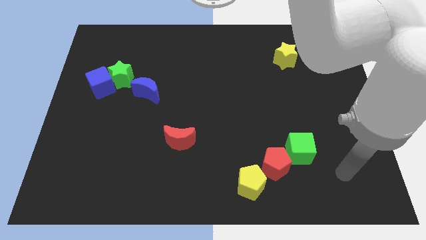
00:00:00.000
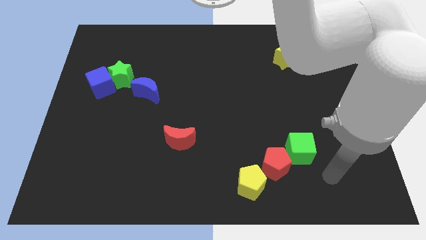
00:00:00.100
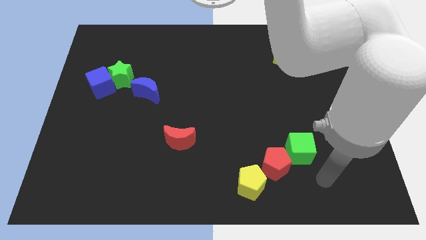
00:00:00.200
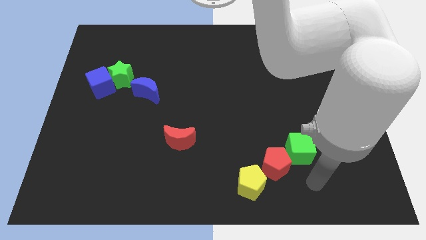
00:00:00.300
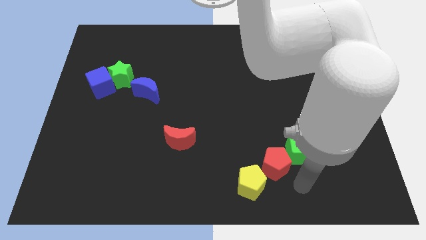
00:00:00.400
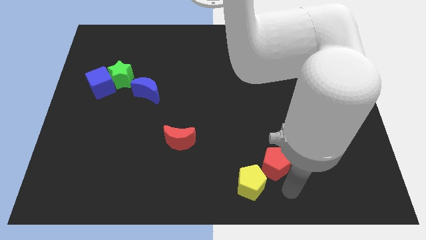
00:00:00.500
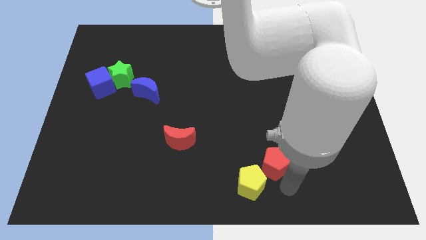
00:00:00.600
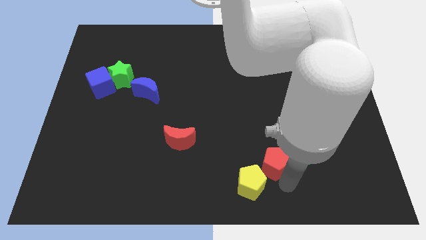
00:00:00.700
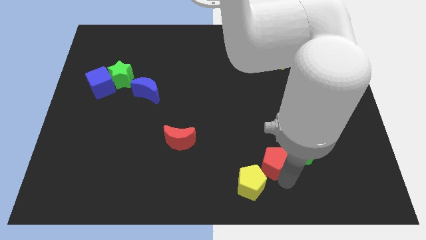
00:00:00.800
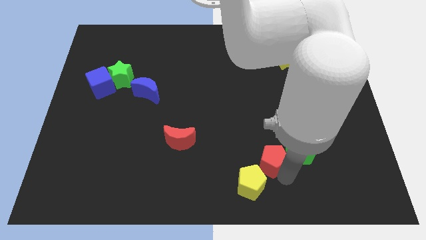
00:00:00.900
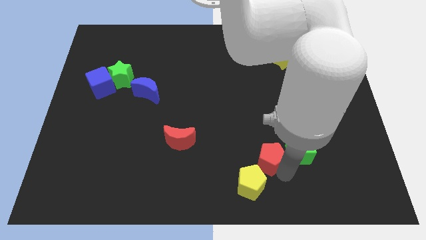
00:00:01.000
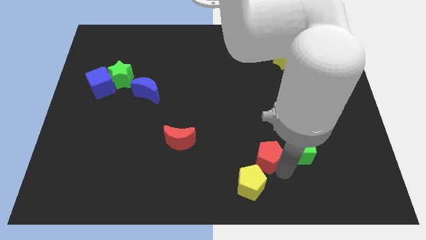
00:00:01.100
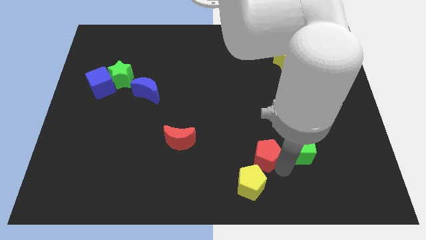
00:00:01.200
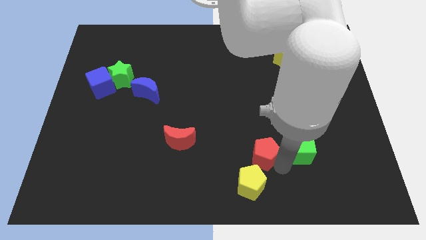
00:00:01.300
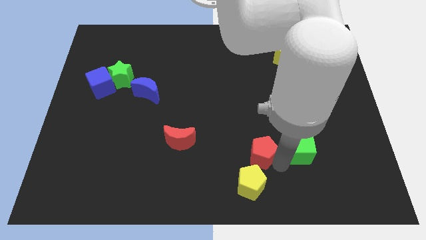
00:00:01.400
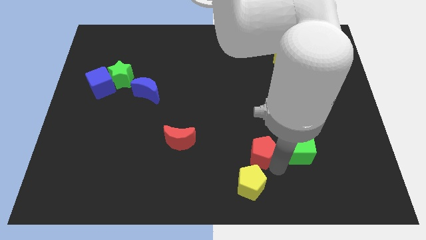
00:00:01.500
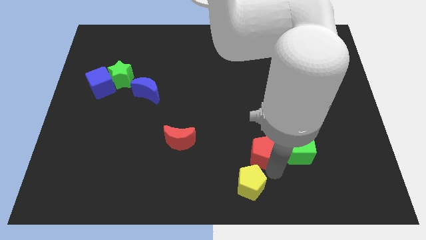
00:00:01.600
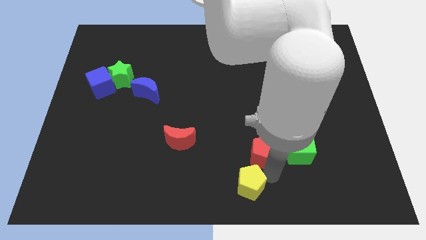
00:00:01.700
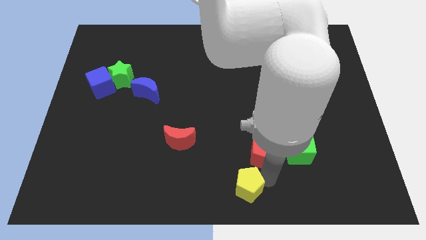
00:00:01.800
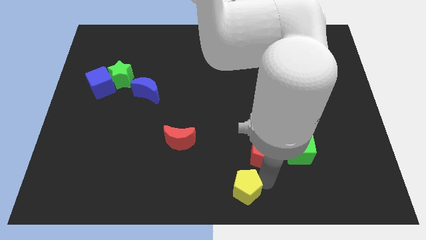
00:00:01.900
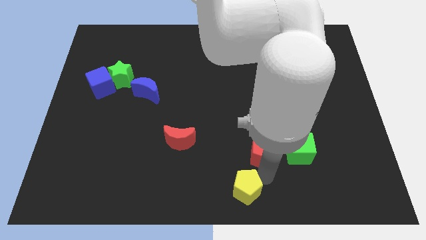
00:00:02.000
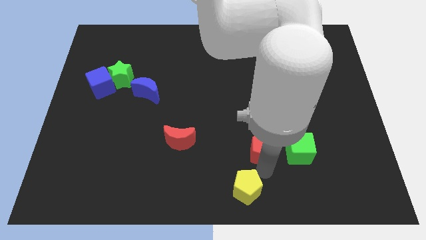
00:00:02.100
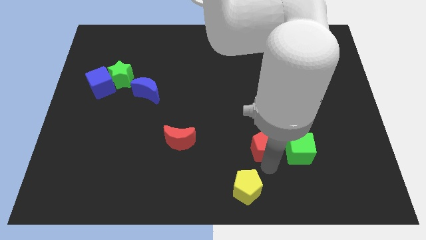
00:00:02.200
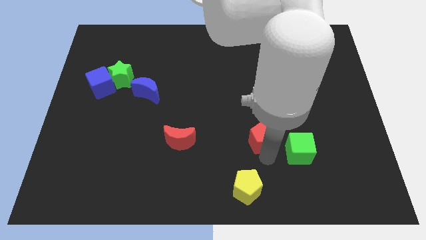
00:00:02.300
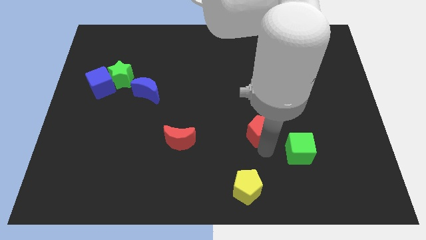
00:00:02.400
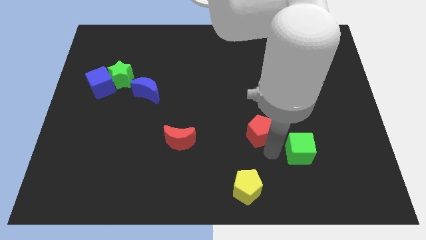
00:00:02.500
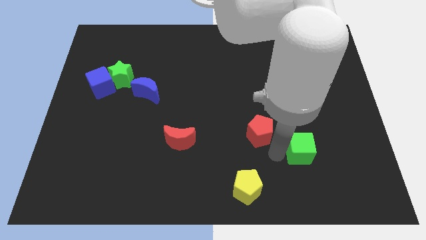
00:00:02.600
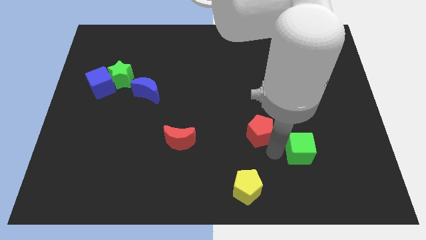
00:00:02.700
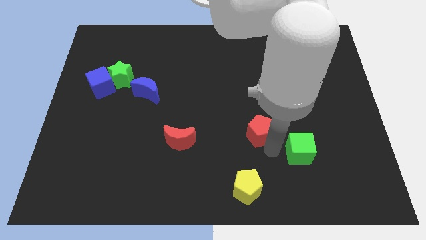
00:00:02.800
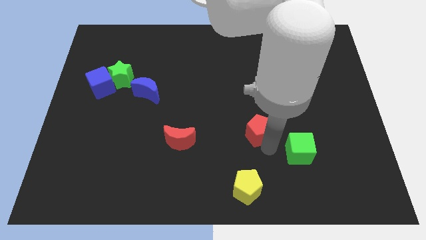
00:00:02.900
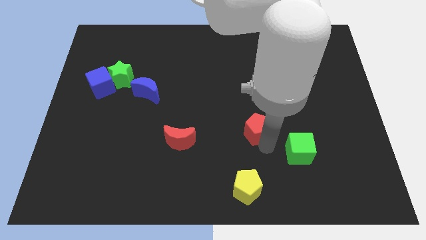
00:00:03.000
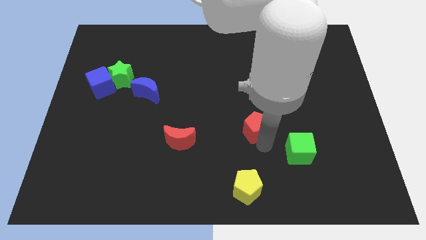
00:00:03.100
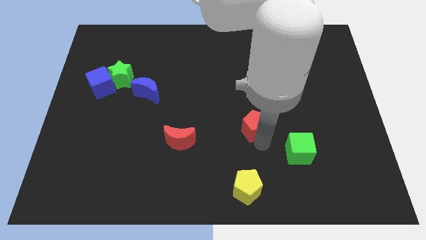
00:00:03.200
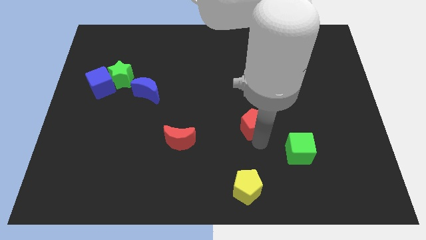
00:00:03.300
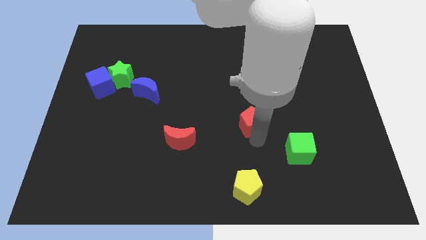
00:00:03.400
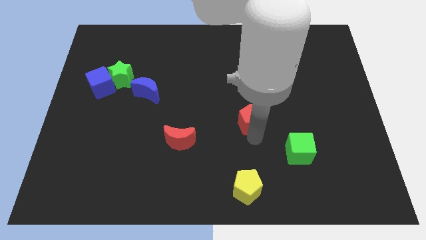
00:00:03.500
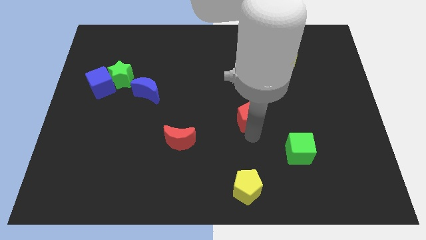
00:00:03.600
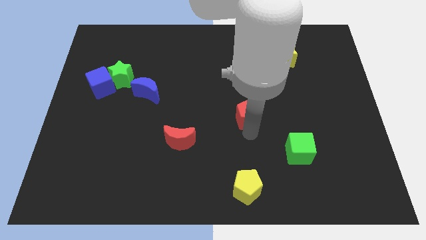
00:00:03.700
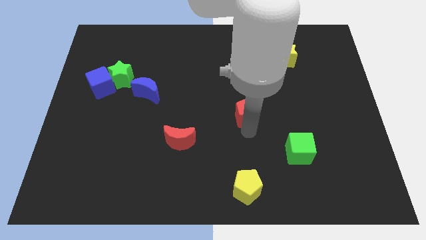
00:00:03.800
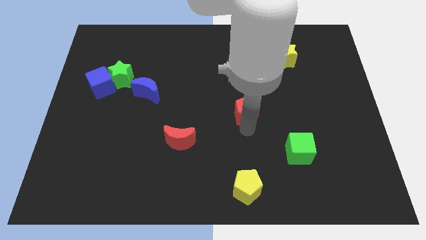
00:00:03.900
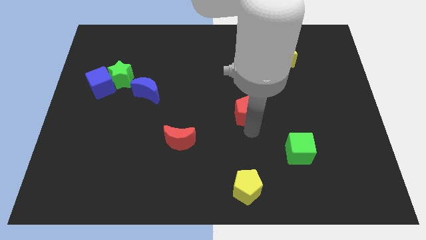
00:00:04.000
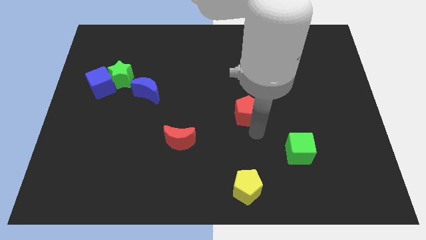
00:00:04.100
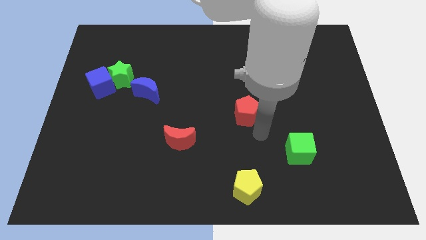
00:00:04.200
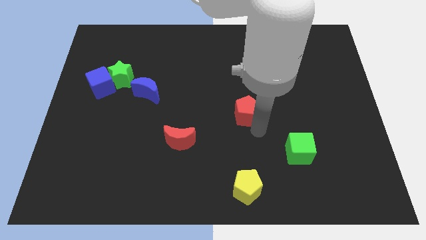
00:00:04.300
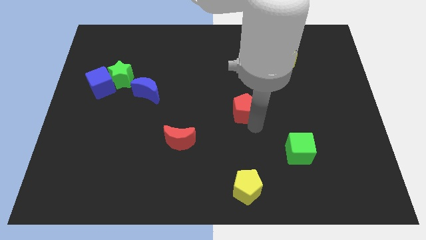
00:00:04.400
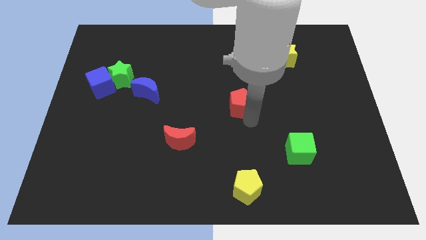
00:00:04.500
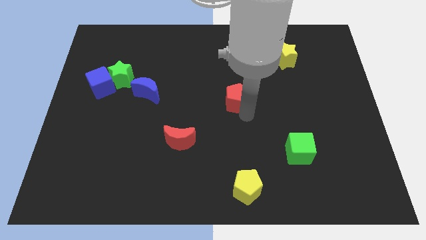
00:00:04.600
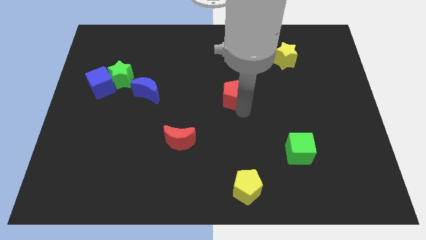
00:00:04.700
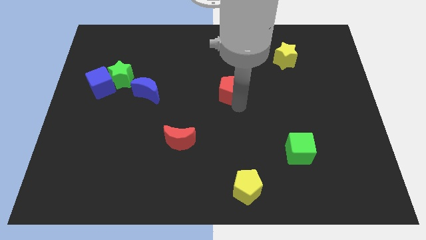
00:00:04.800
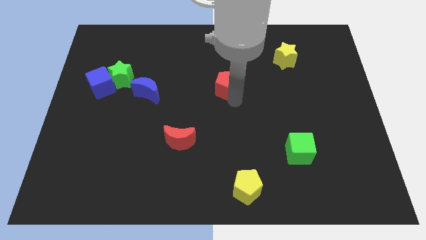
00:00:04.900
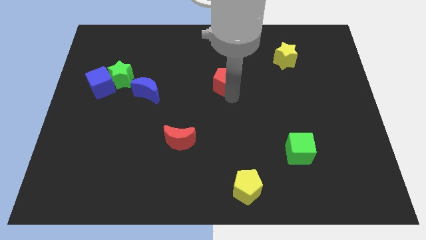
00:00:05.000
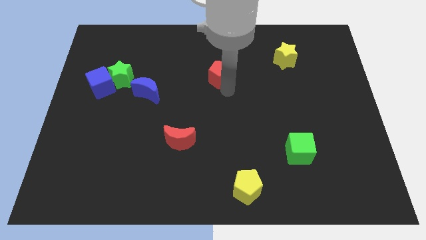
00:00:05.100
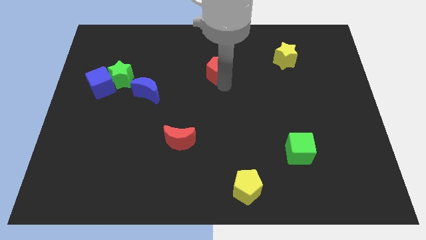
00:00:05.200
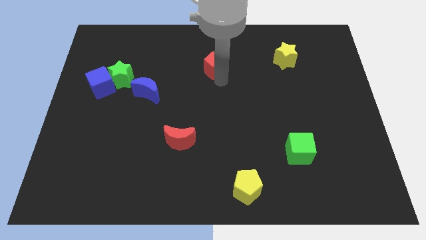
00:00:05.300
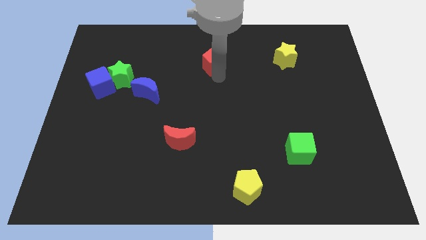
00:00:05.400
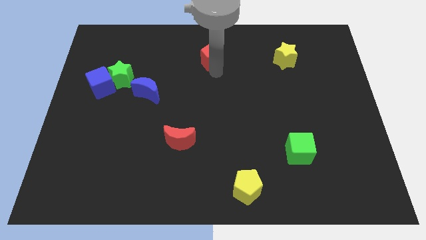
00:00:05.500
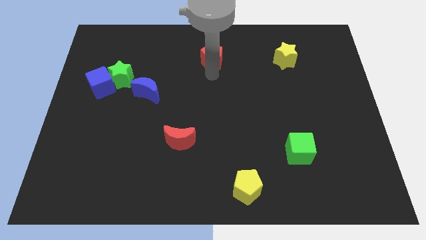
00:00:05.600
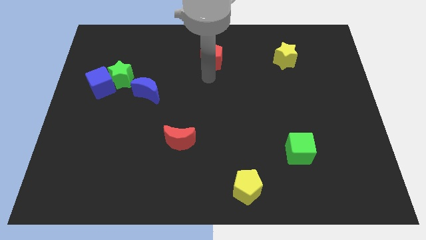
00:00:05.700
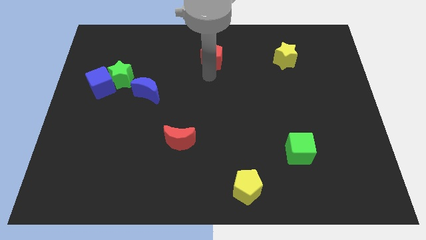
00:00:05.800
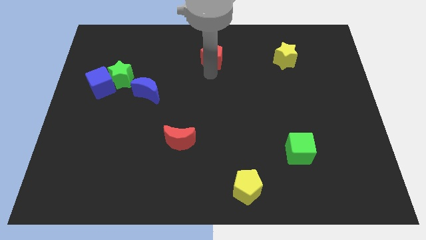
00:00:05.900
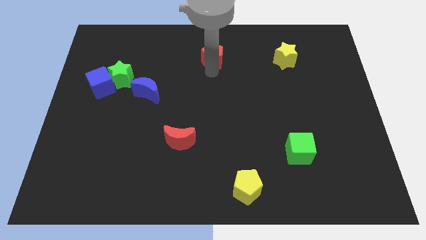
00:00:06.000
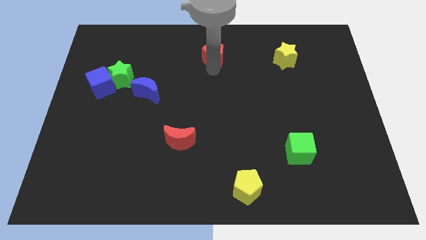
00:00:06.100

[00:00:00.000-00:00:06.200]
push the red pentagon to the top
